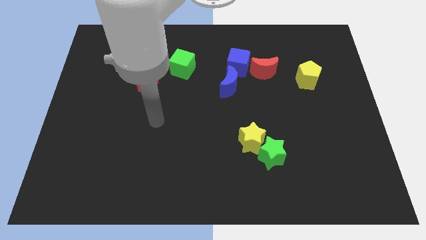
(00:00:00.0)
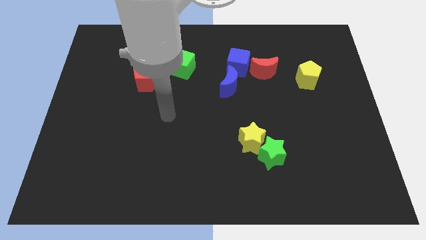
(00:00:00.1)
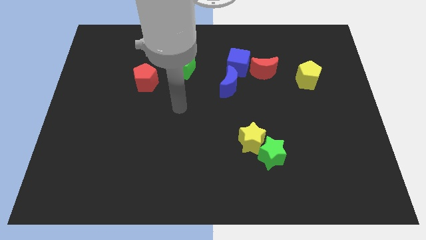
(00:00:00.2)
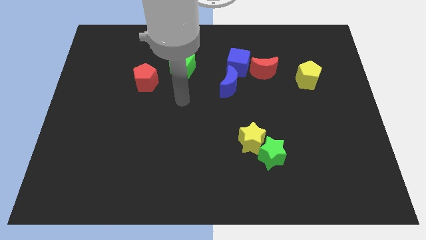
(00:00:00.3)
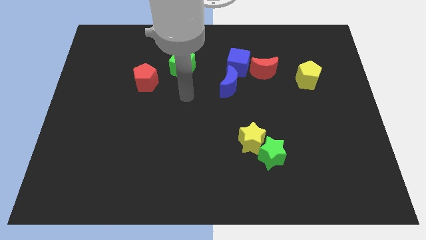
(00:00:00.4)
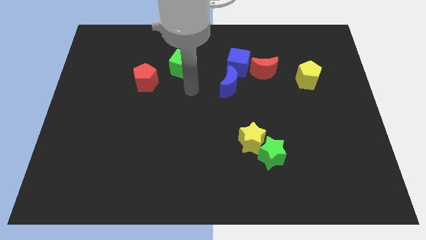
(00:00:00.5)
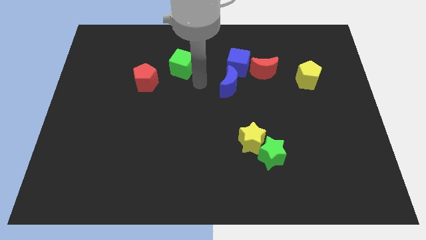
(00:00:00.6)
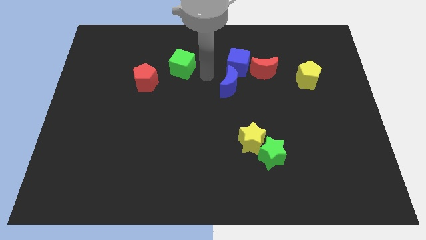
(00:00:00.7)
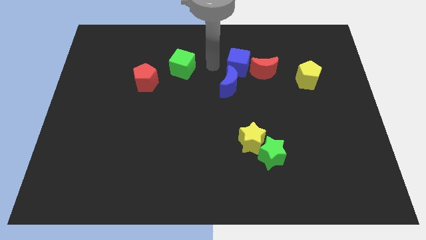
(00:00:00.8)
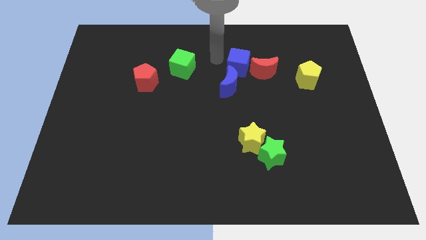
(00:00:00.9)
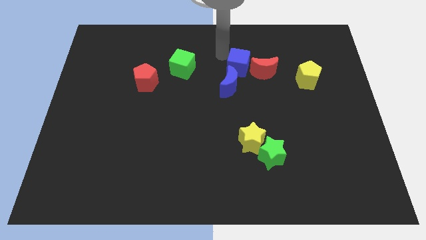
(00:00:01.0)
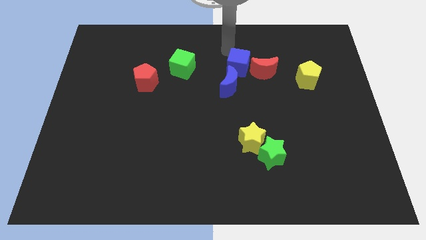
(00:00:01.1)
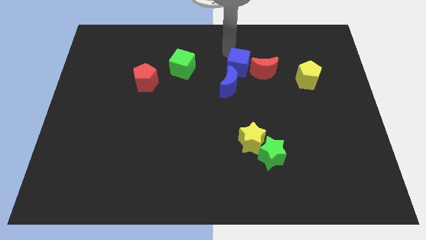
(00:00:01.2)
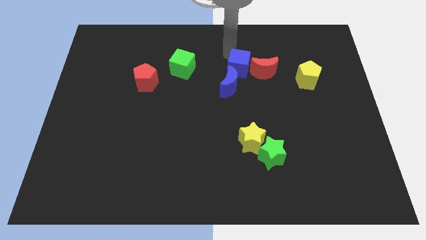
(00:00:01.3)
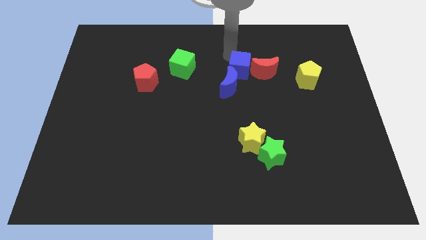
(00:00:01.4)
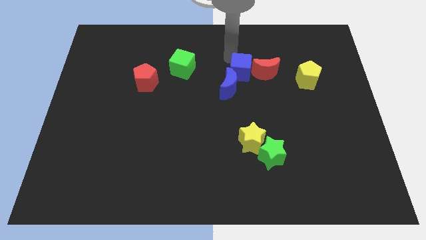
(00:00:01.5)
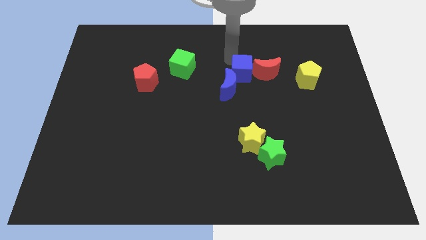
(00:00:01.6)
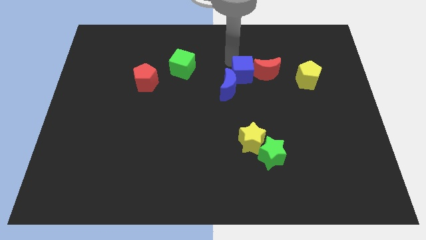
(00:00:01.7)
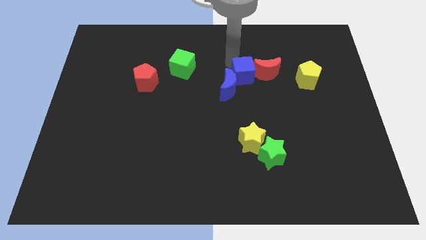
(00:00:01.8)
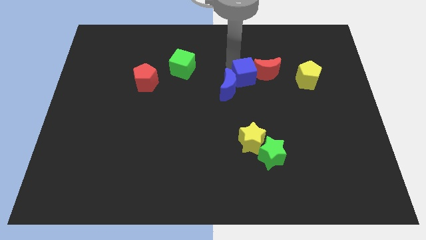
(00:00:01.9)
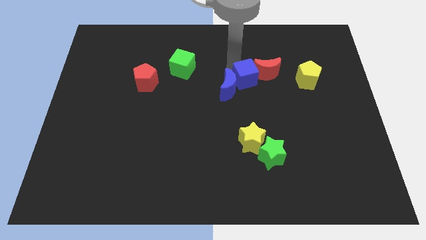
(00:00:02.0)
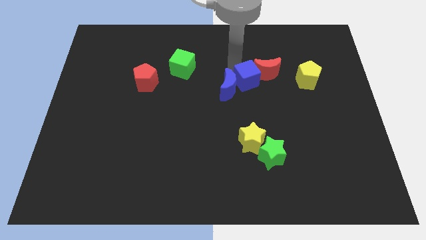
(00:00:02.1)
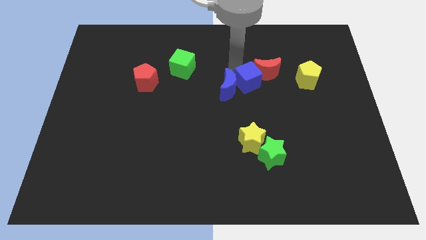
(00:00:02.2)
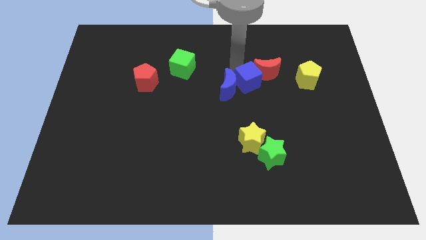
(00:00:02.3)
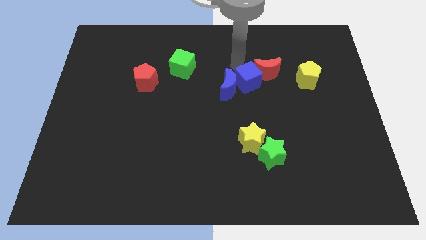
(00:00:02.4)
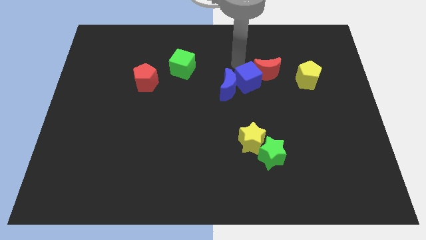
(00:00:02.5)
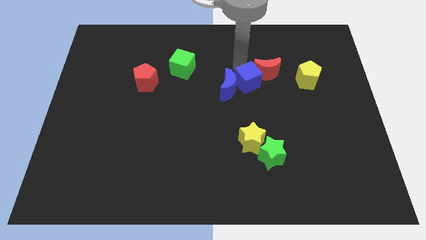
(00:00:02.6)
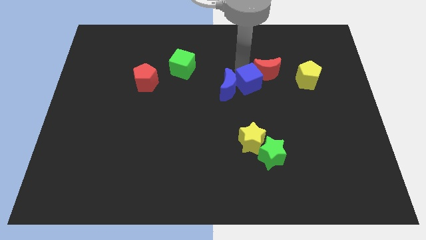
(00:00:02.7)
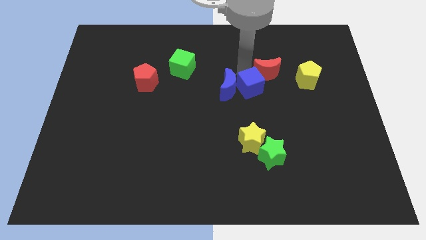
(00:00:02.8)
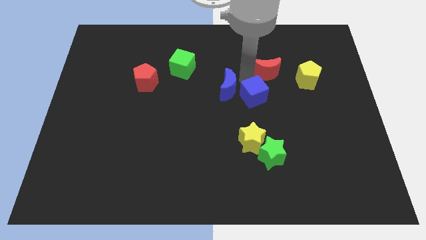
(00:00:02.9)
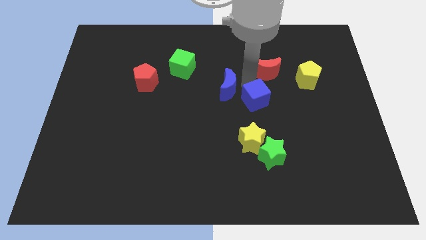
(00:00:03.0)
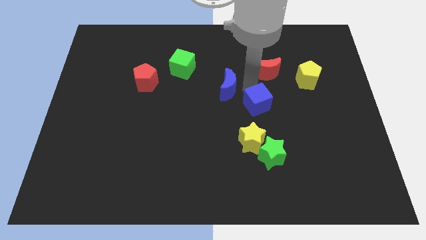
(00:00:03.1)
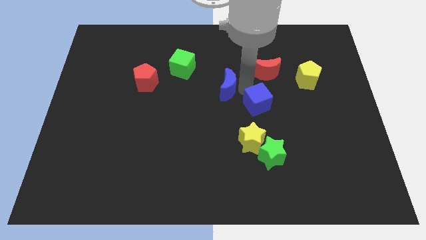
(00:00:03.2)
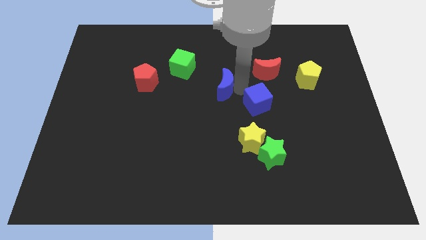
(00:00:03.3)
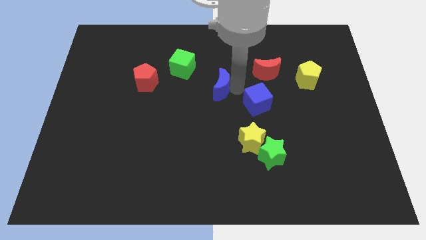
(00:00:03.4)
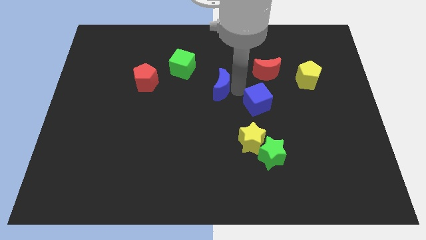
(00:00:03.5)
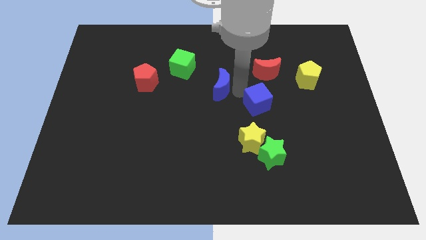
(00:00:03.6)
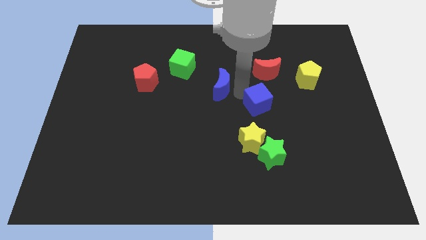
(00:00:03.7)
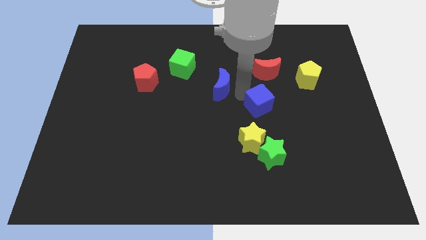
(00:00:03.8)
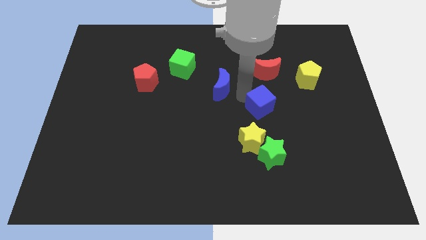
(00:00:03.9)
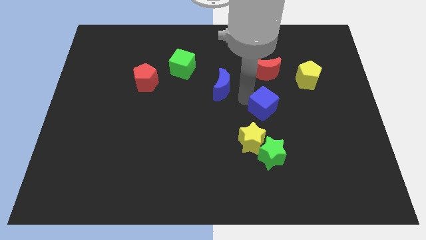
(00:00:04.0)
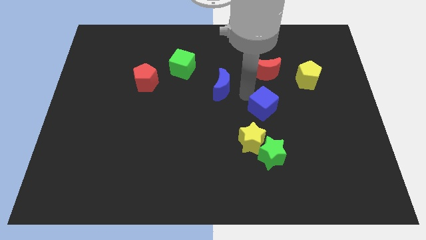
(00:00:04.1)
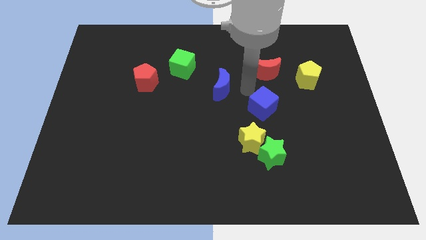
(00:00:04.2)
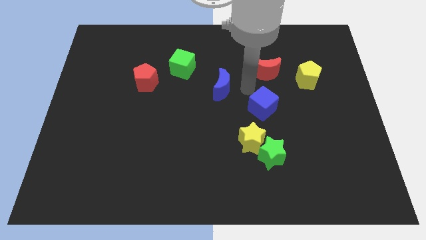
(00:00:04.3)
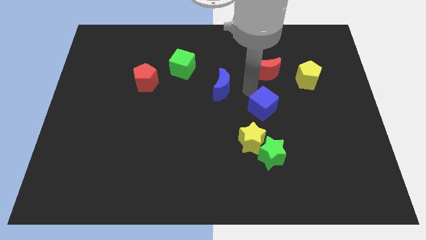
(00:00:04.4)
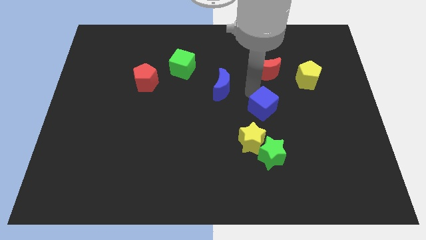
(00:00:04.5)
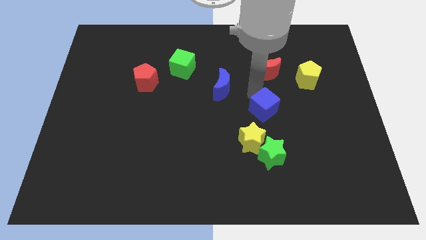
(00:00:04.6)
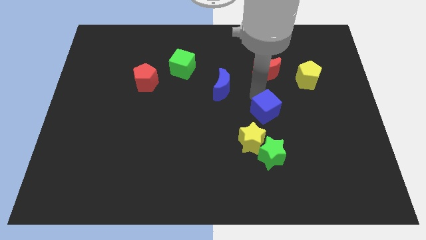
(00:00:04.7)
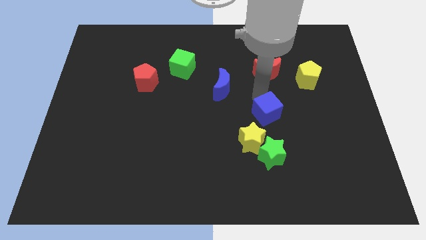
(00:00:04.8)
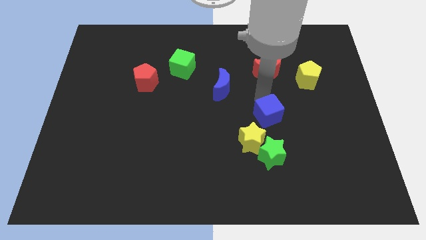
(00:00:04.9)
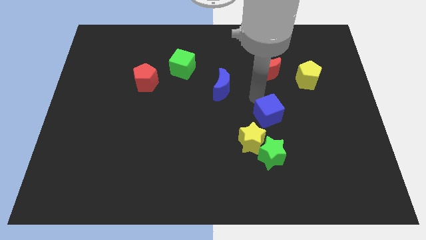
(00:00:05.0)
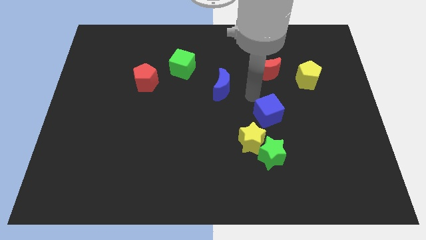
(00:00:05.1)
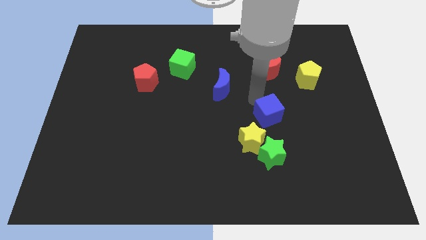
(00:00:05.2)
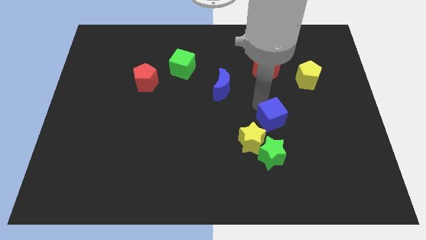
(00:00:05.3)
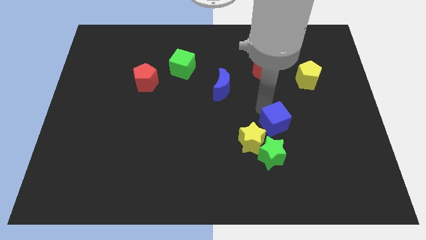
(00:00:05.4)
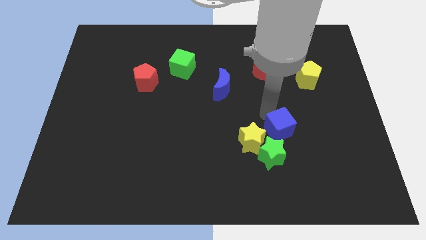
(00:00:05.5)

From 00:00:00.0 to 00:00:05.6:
slide the blue cube right of the yellow star
